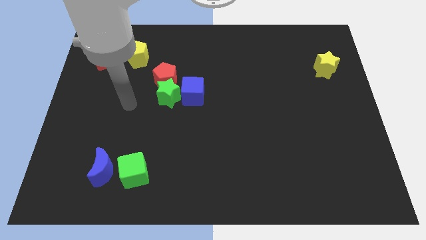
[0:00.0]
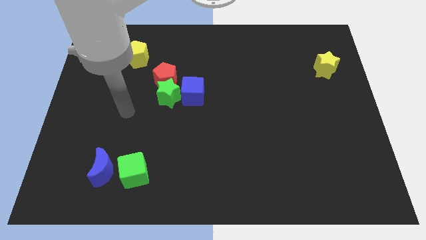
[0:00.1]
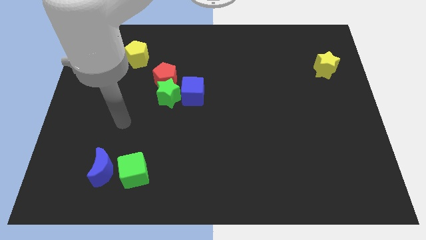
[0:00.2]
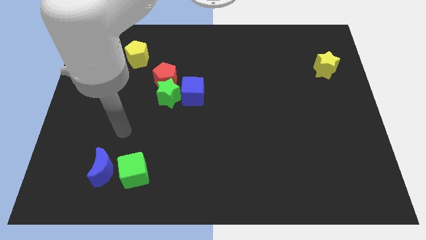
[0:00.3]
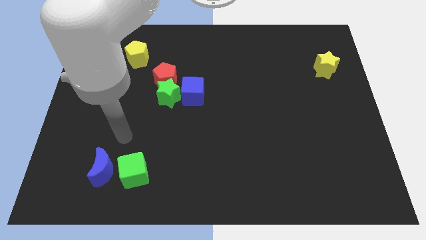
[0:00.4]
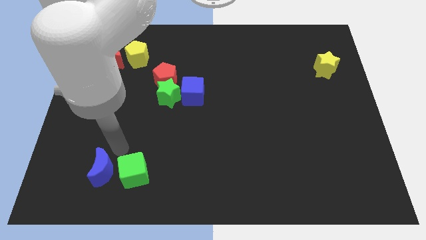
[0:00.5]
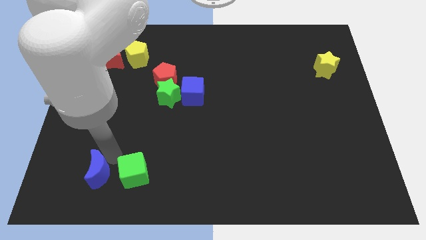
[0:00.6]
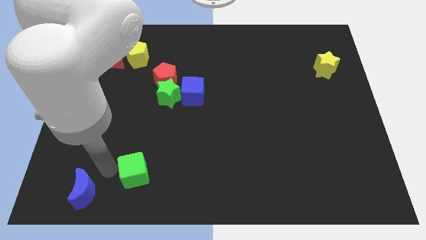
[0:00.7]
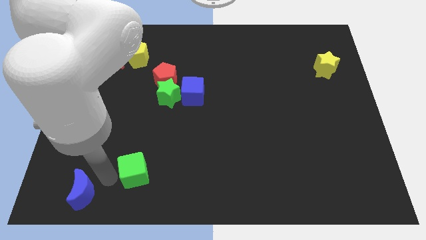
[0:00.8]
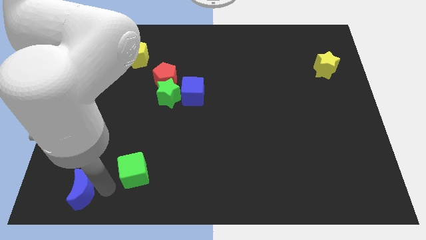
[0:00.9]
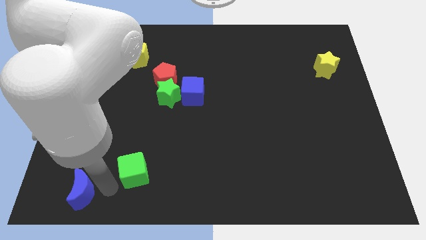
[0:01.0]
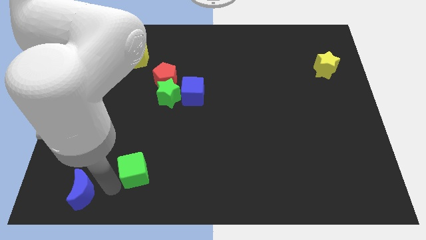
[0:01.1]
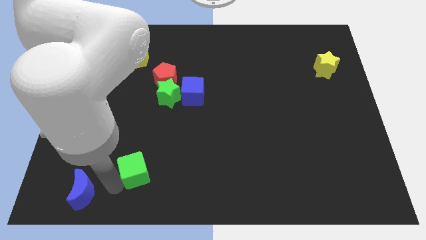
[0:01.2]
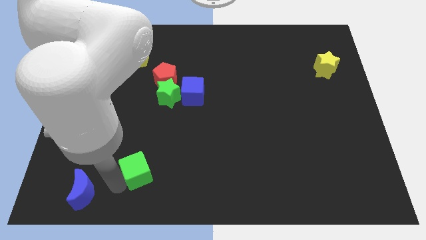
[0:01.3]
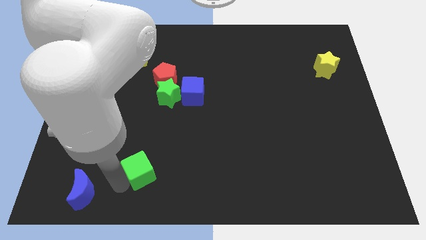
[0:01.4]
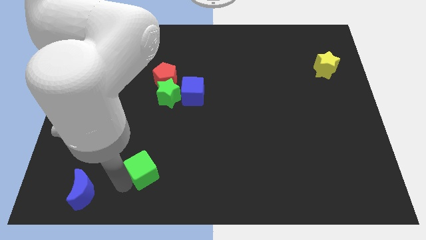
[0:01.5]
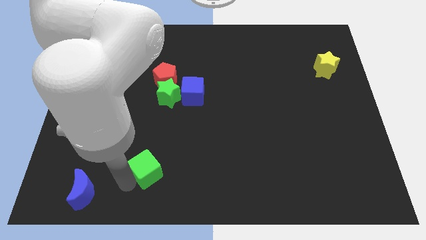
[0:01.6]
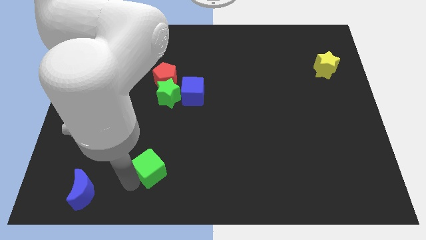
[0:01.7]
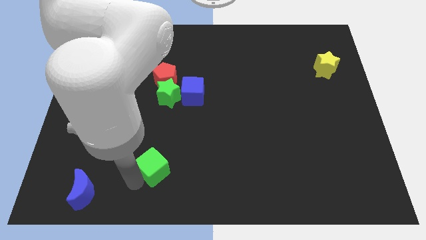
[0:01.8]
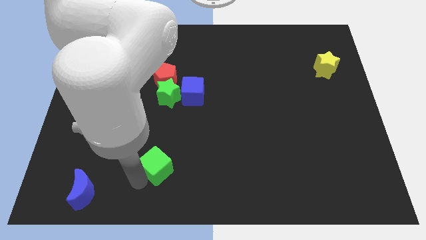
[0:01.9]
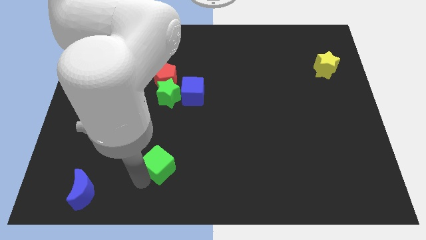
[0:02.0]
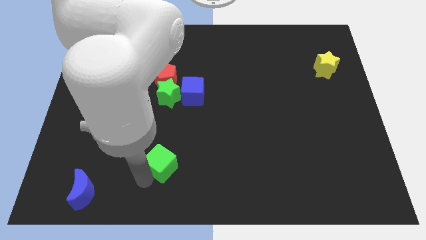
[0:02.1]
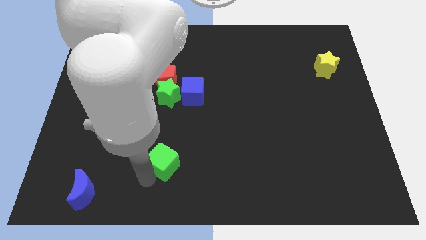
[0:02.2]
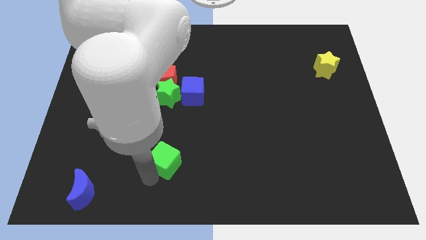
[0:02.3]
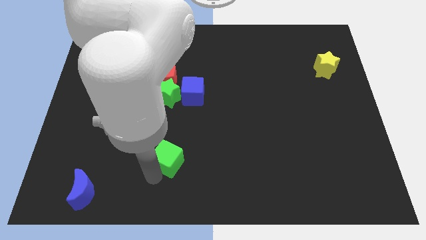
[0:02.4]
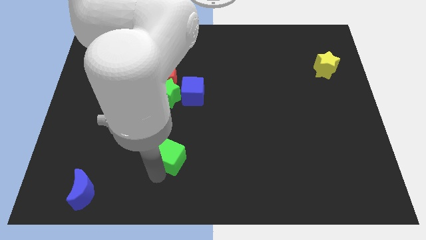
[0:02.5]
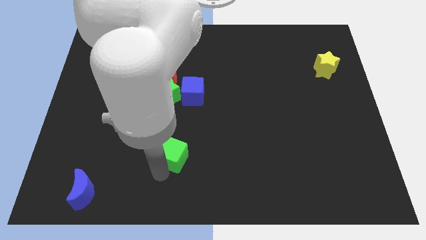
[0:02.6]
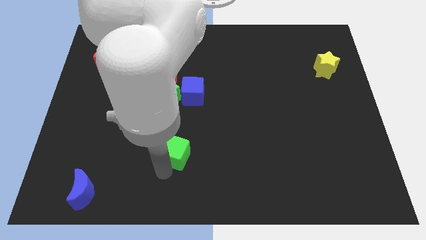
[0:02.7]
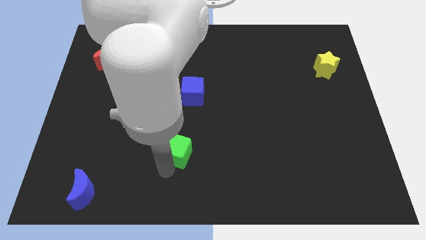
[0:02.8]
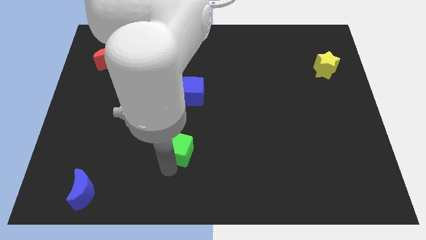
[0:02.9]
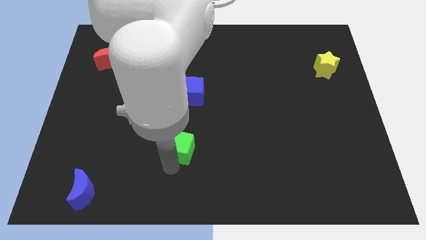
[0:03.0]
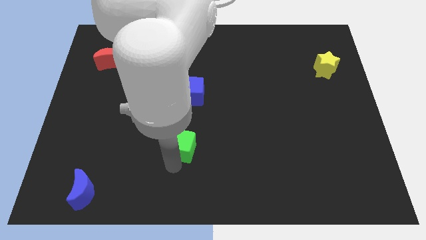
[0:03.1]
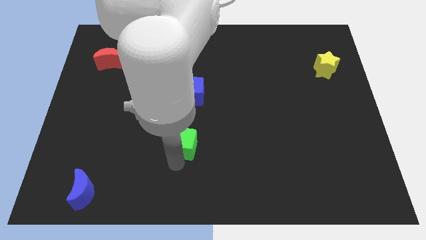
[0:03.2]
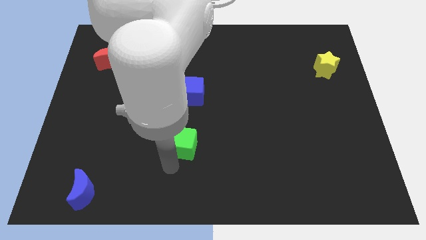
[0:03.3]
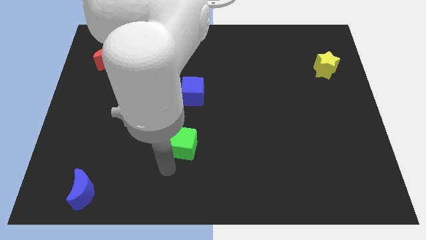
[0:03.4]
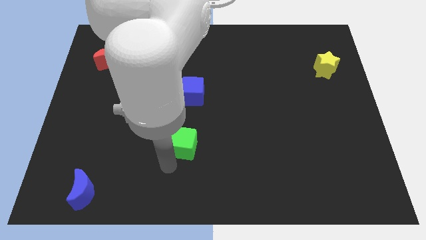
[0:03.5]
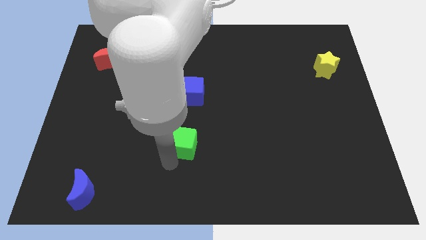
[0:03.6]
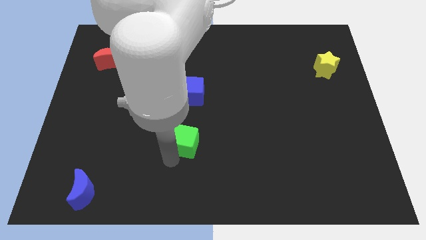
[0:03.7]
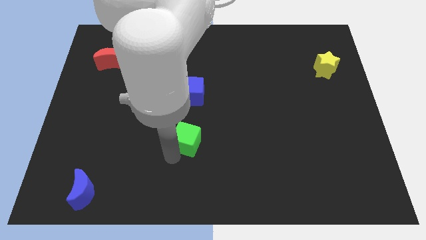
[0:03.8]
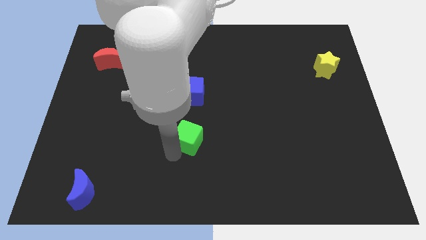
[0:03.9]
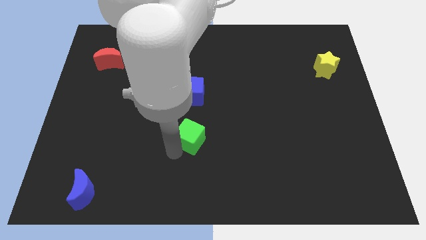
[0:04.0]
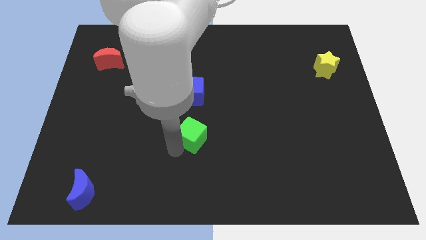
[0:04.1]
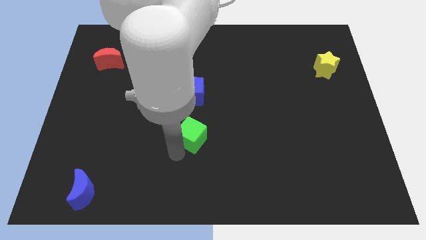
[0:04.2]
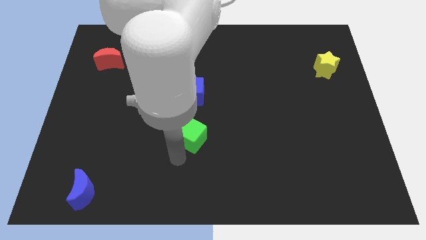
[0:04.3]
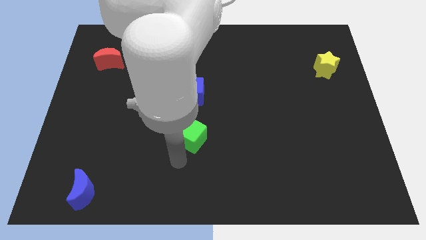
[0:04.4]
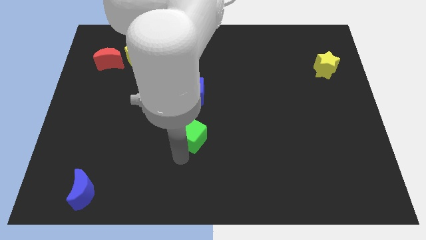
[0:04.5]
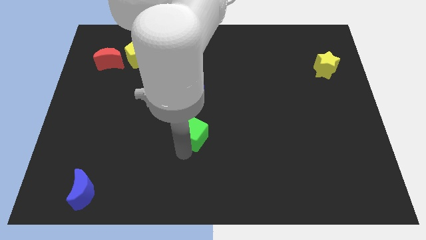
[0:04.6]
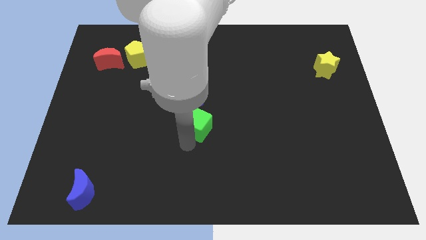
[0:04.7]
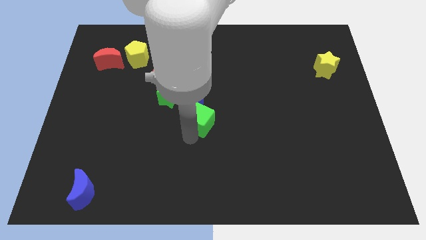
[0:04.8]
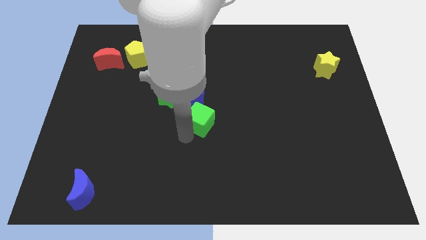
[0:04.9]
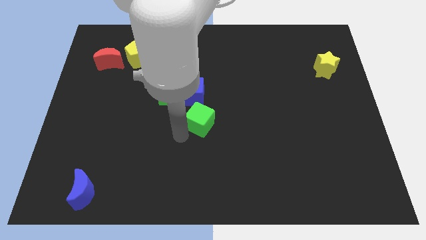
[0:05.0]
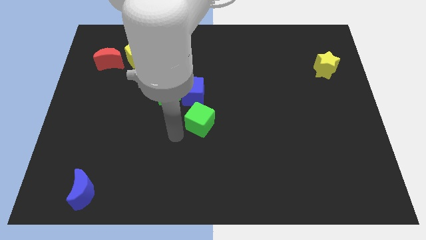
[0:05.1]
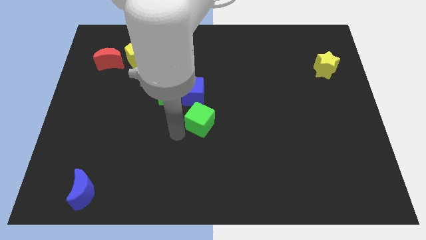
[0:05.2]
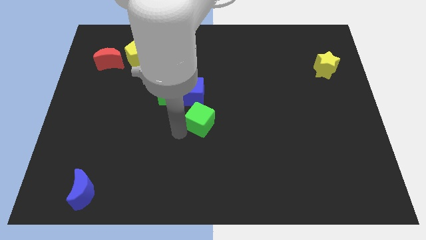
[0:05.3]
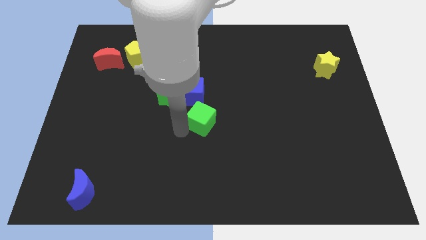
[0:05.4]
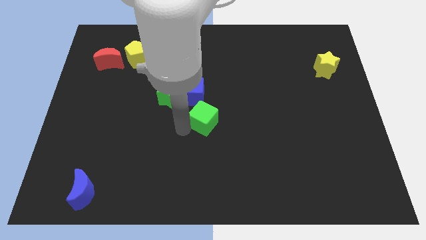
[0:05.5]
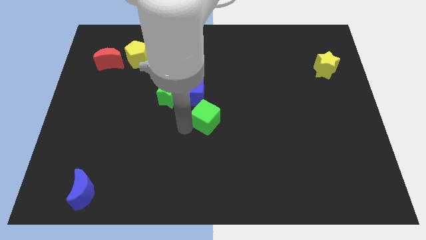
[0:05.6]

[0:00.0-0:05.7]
move the green cube up and to the right diagonally

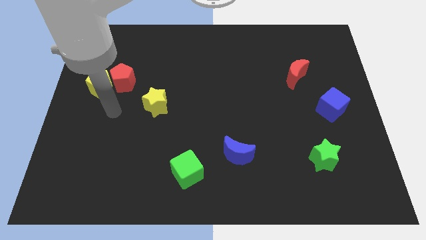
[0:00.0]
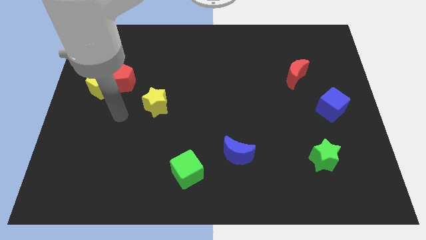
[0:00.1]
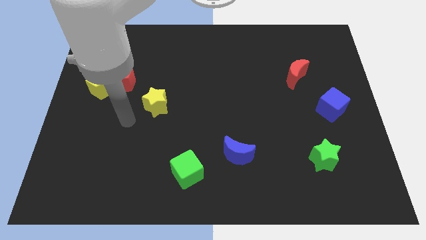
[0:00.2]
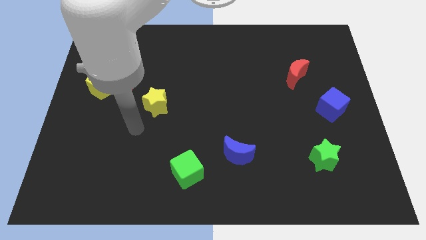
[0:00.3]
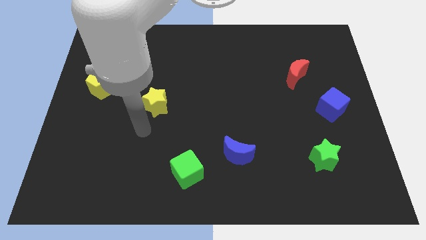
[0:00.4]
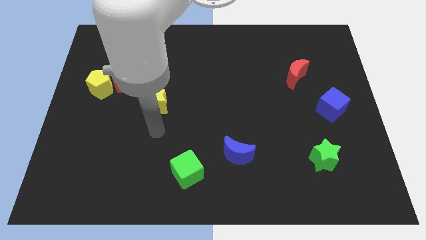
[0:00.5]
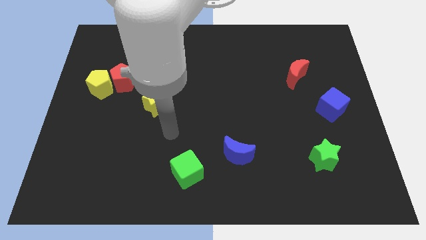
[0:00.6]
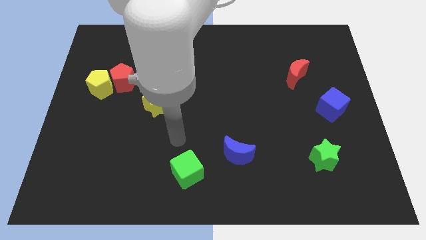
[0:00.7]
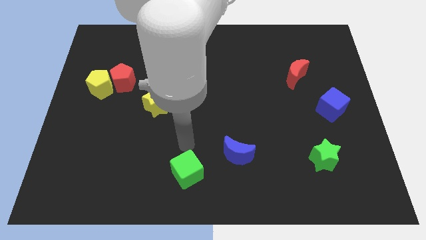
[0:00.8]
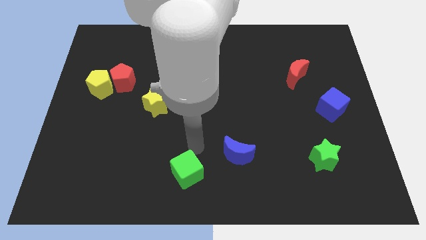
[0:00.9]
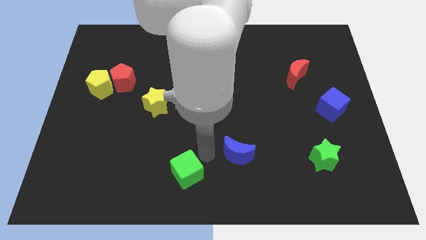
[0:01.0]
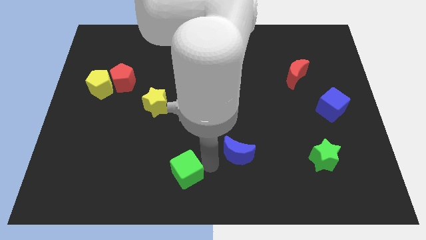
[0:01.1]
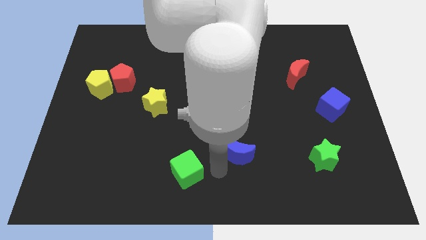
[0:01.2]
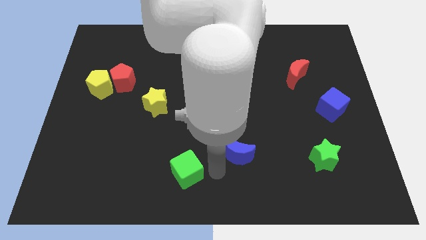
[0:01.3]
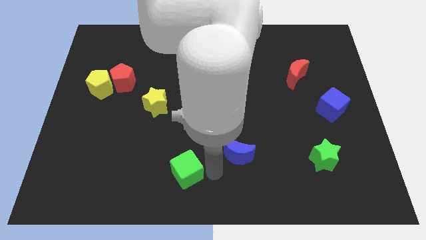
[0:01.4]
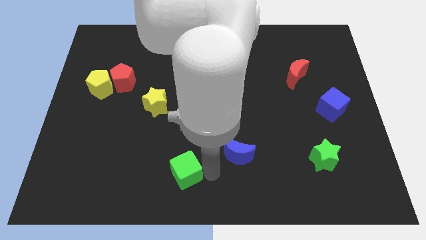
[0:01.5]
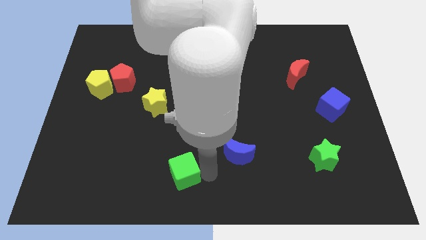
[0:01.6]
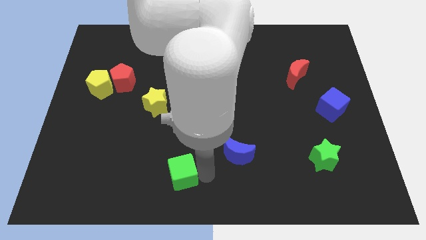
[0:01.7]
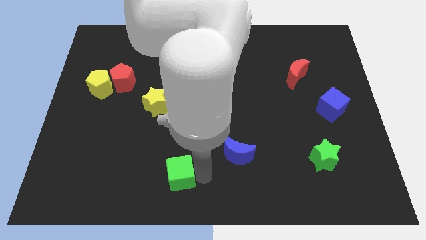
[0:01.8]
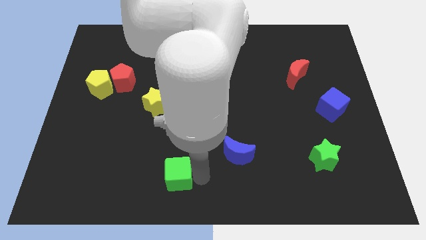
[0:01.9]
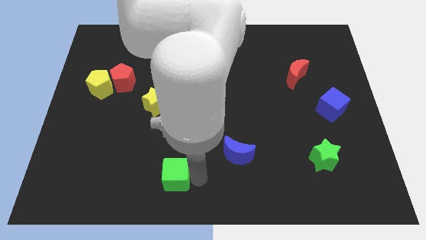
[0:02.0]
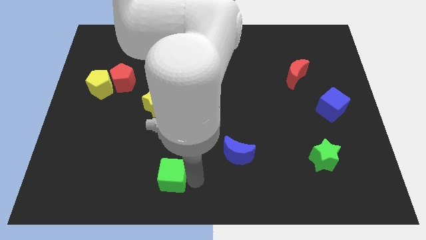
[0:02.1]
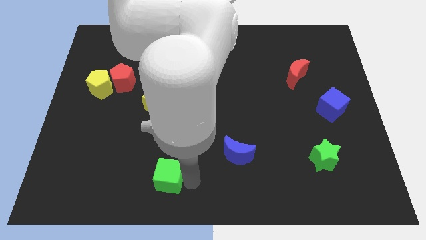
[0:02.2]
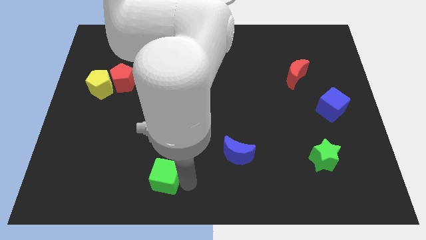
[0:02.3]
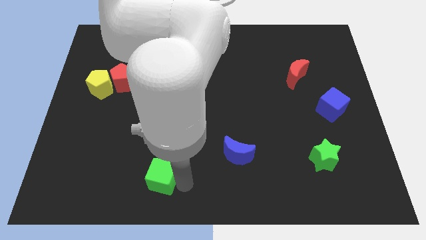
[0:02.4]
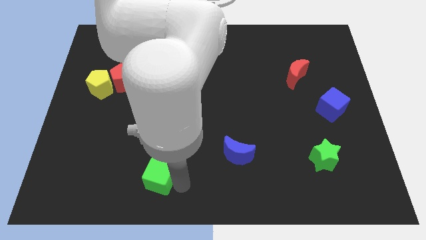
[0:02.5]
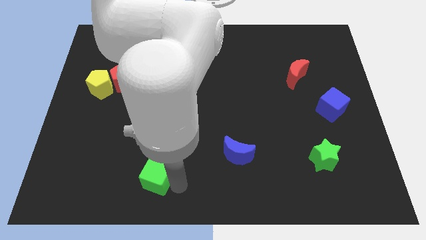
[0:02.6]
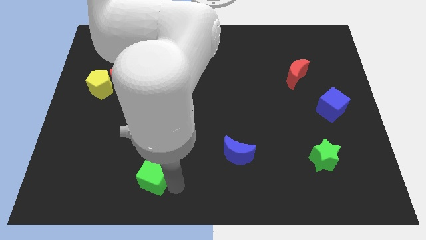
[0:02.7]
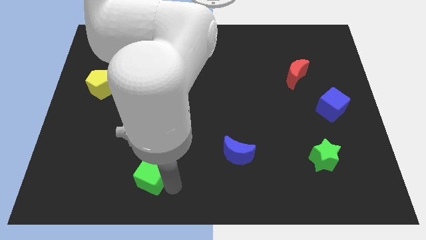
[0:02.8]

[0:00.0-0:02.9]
push the green cube slightly left
